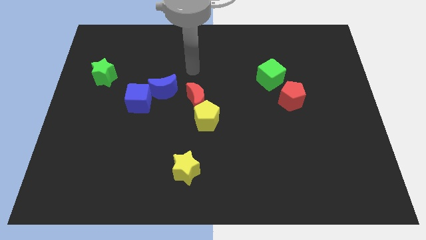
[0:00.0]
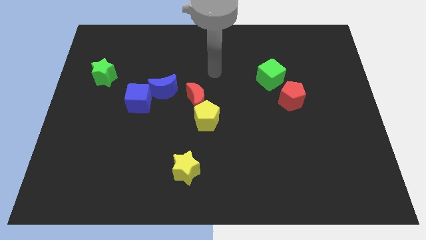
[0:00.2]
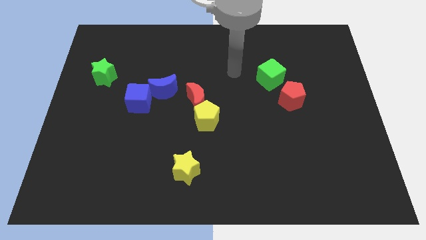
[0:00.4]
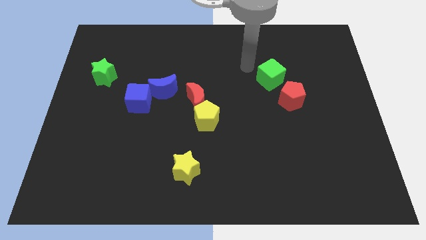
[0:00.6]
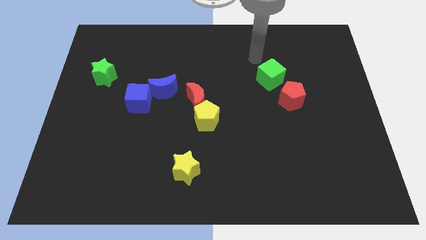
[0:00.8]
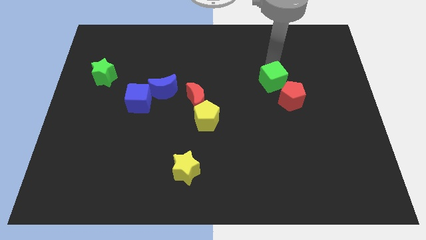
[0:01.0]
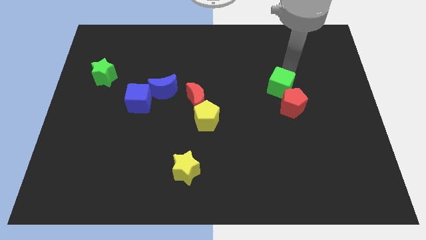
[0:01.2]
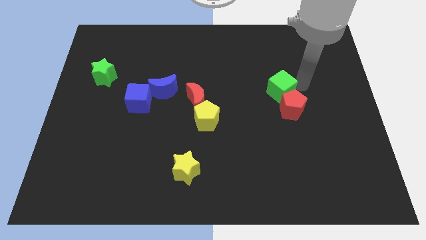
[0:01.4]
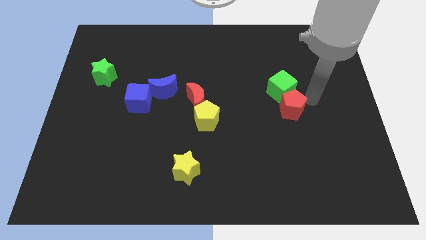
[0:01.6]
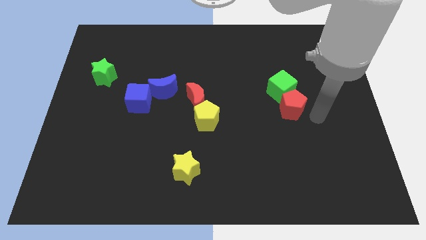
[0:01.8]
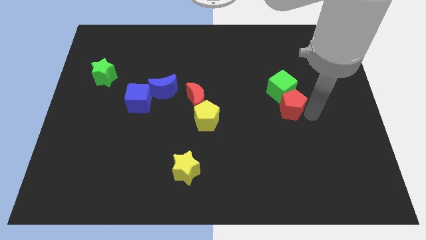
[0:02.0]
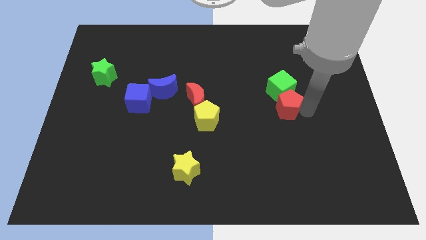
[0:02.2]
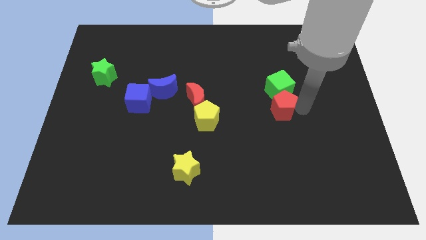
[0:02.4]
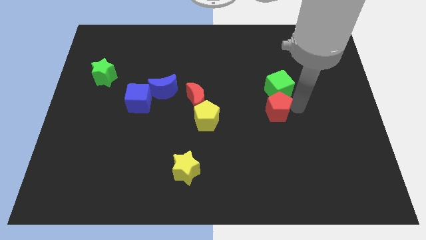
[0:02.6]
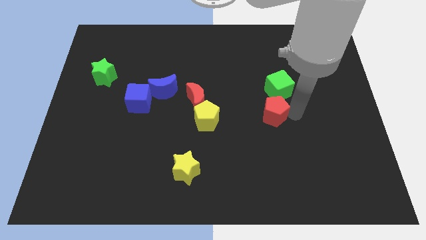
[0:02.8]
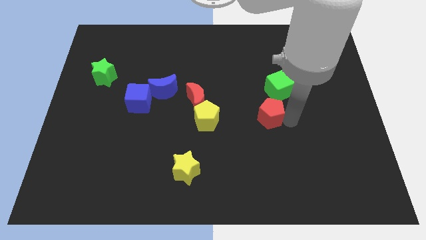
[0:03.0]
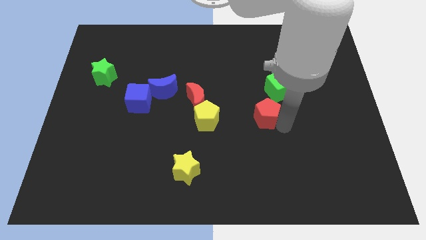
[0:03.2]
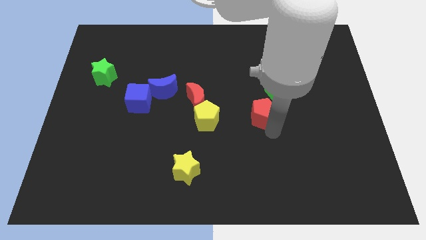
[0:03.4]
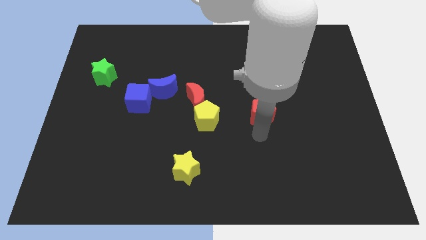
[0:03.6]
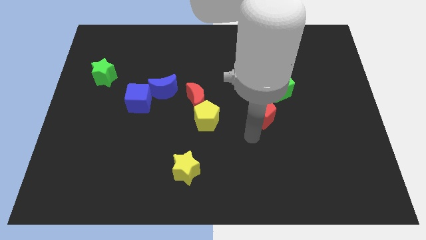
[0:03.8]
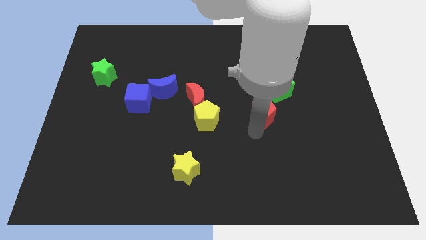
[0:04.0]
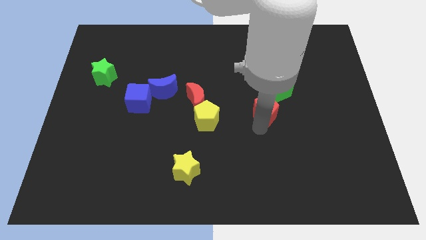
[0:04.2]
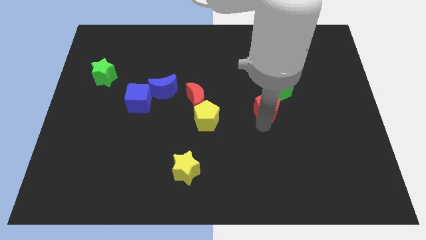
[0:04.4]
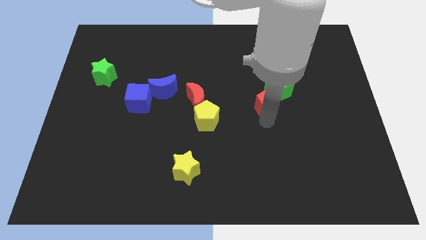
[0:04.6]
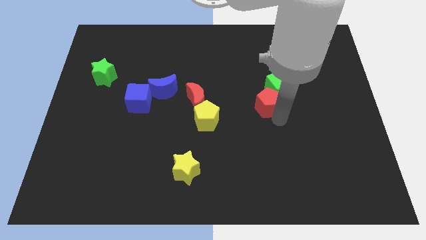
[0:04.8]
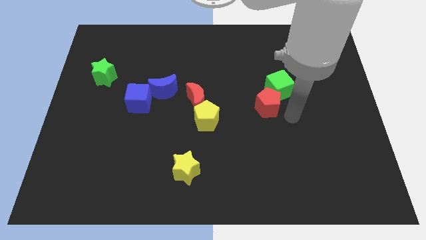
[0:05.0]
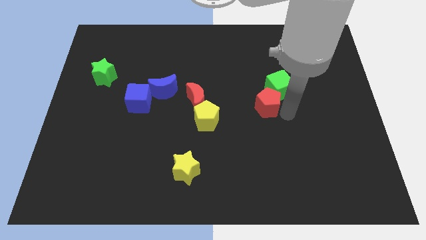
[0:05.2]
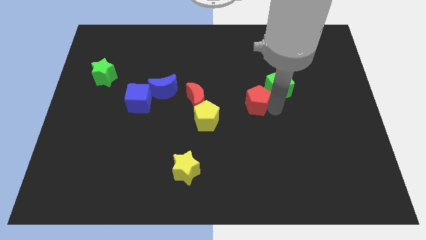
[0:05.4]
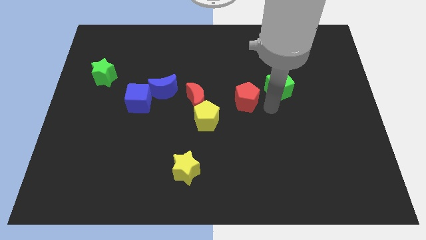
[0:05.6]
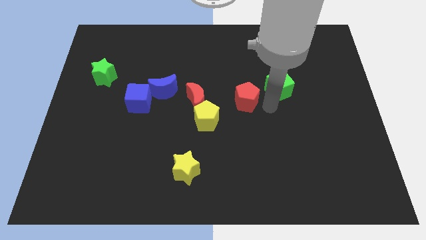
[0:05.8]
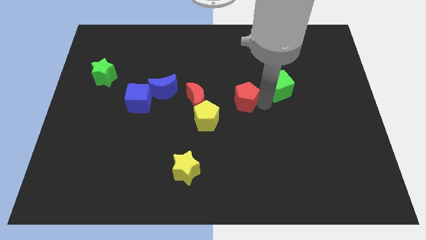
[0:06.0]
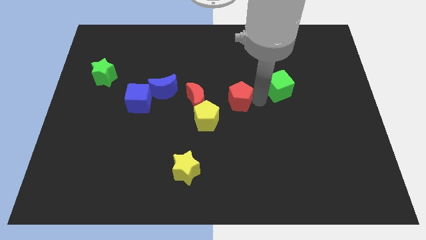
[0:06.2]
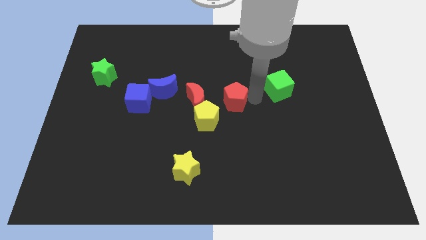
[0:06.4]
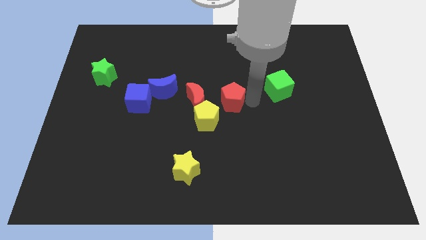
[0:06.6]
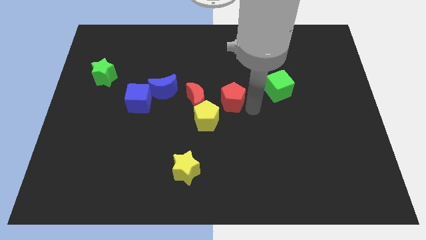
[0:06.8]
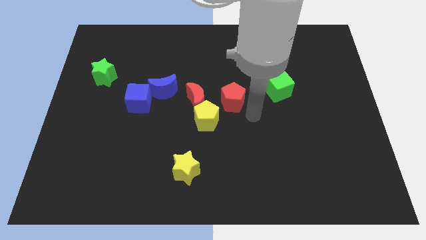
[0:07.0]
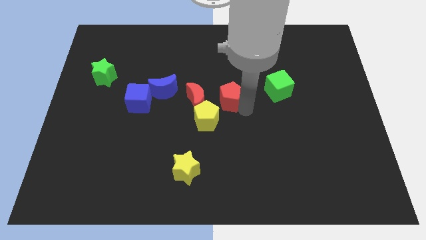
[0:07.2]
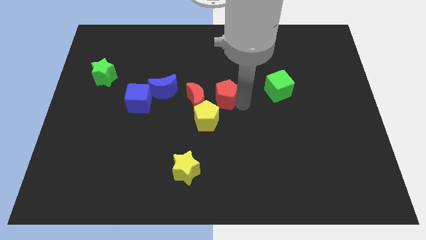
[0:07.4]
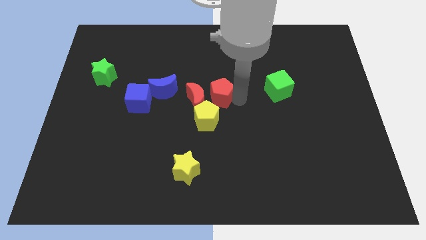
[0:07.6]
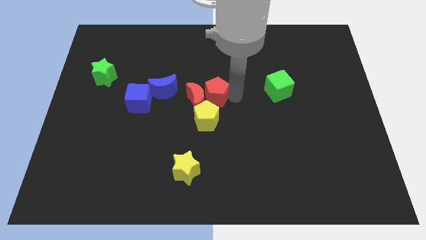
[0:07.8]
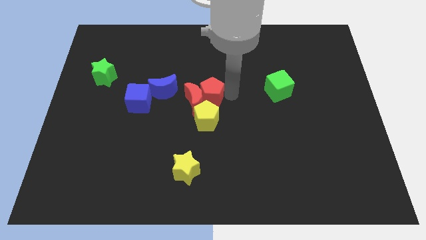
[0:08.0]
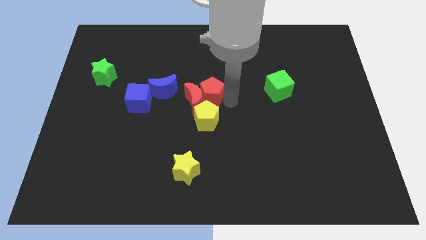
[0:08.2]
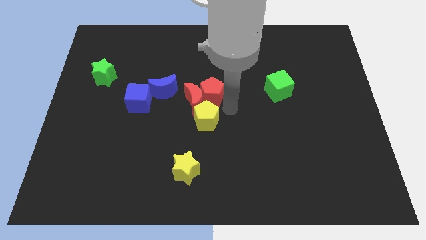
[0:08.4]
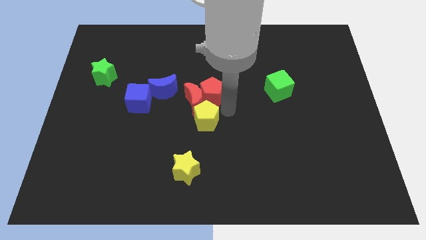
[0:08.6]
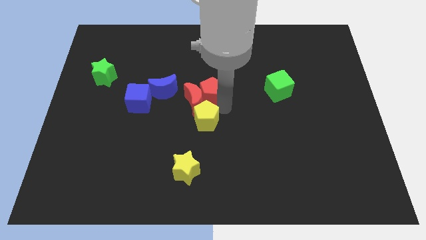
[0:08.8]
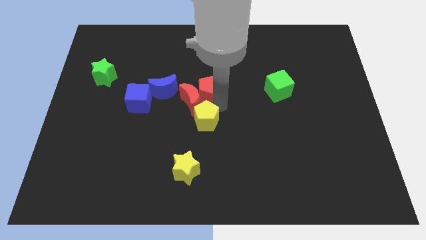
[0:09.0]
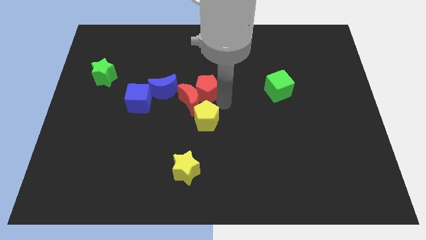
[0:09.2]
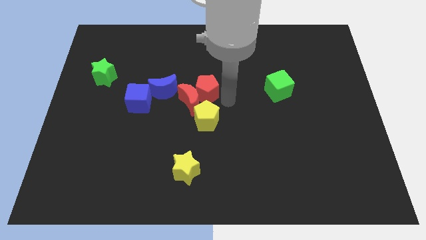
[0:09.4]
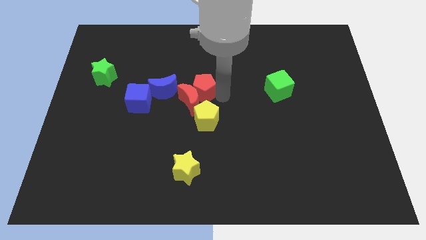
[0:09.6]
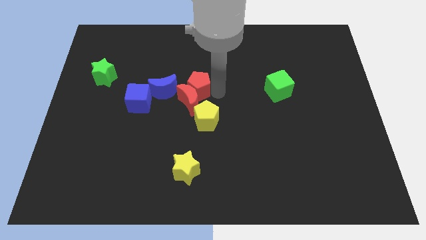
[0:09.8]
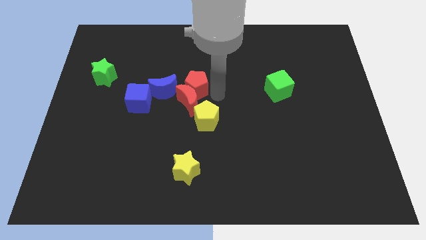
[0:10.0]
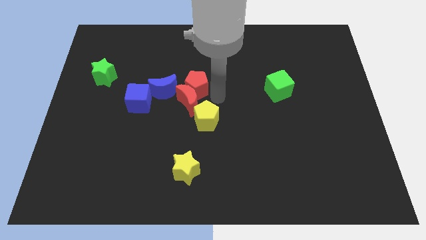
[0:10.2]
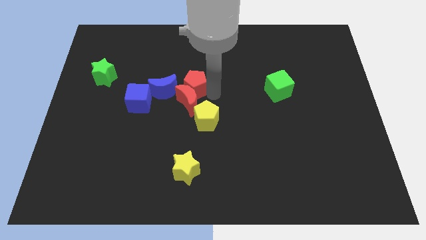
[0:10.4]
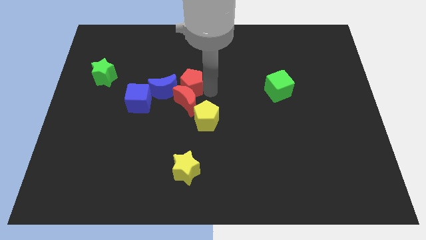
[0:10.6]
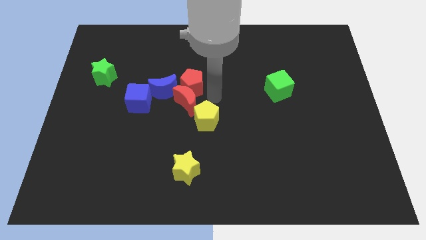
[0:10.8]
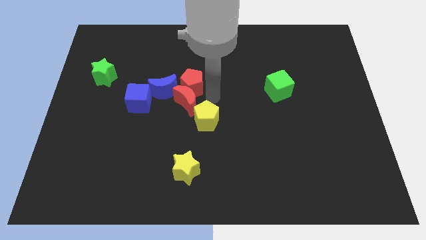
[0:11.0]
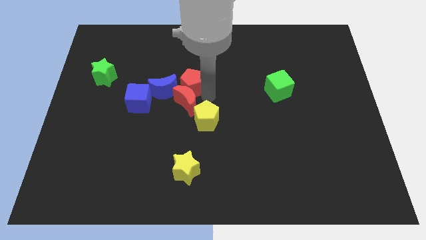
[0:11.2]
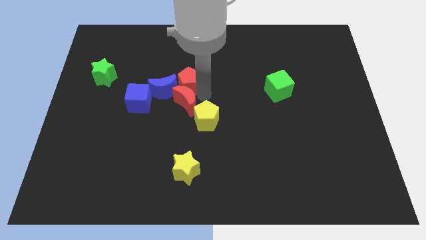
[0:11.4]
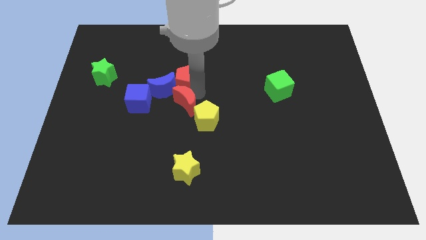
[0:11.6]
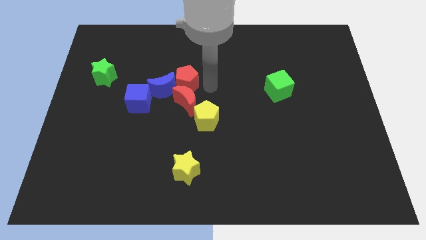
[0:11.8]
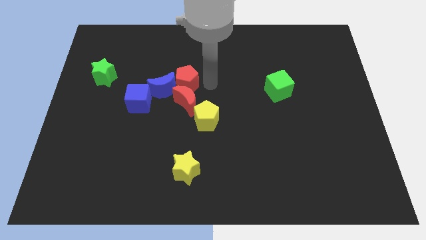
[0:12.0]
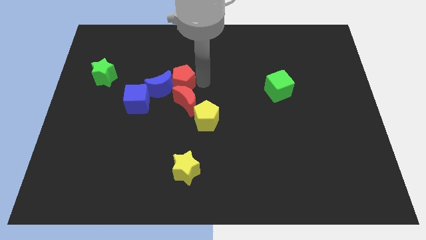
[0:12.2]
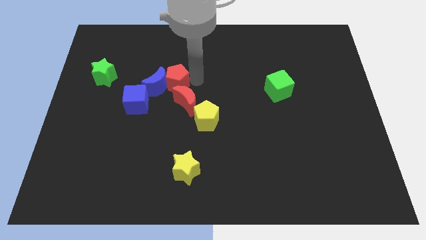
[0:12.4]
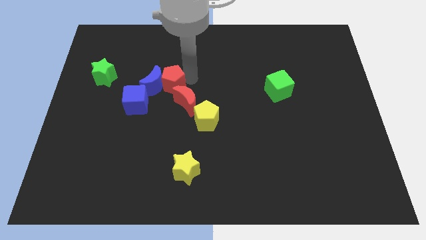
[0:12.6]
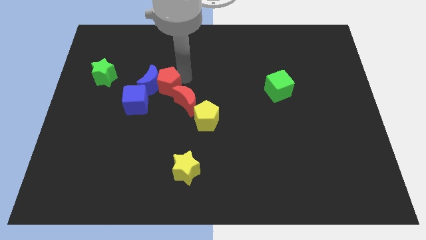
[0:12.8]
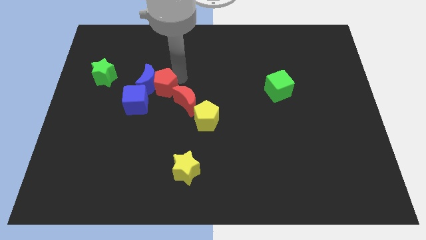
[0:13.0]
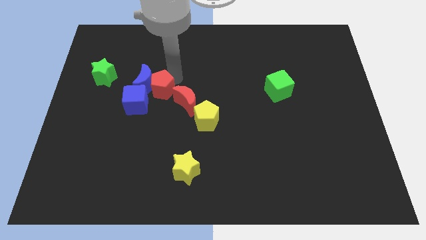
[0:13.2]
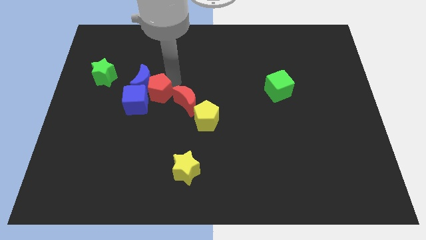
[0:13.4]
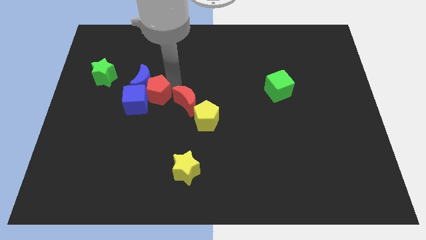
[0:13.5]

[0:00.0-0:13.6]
slide the red pentagon to the blue cube
